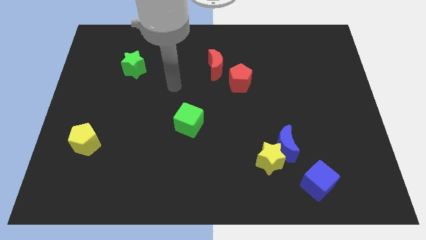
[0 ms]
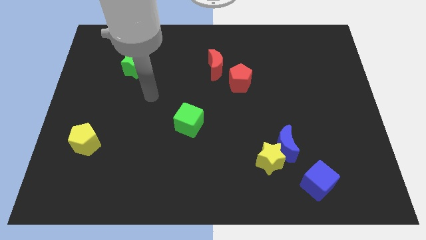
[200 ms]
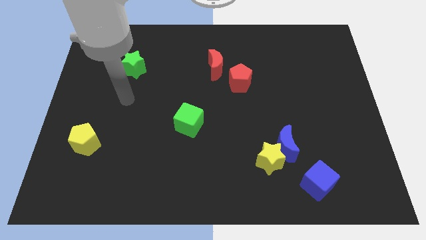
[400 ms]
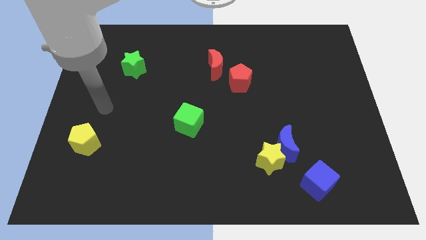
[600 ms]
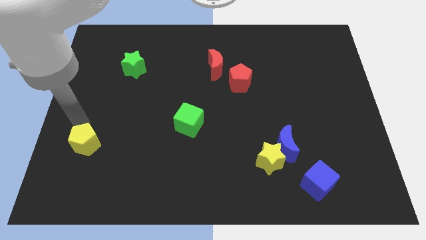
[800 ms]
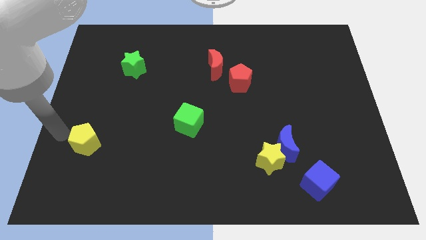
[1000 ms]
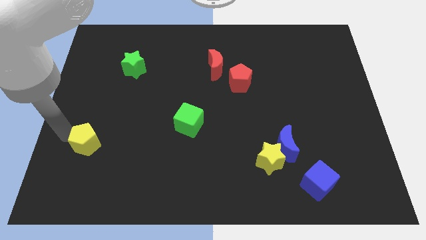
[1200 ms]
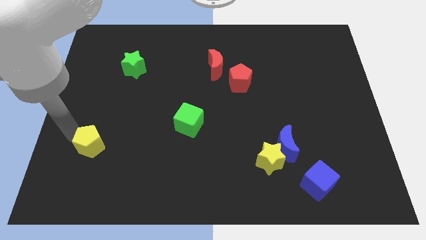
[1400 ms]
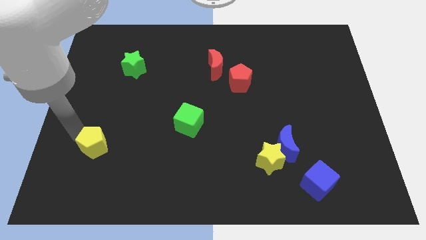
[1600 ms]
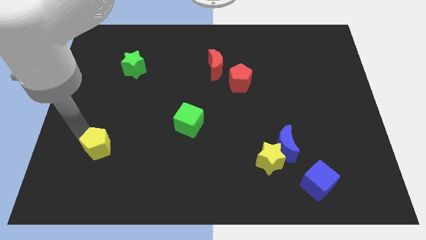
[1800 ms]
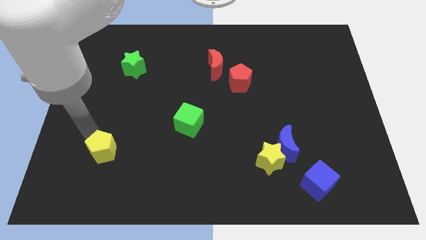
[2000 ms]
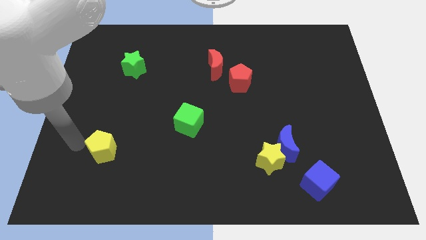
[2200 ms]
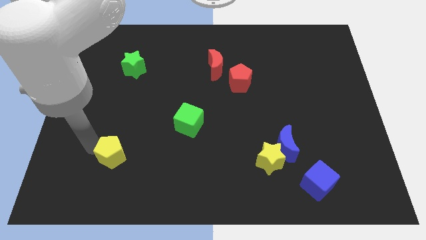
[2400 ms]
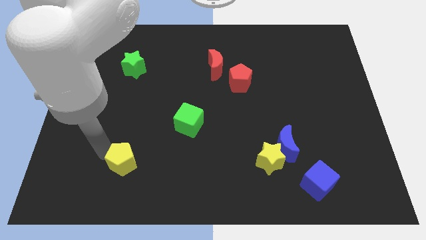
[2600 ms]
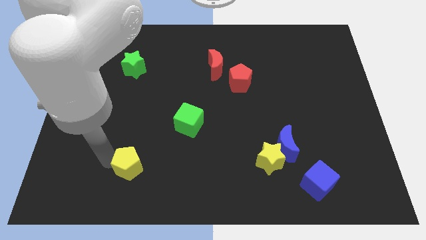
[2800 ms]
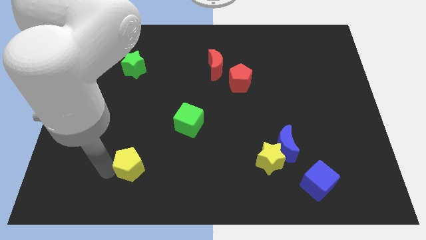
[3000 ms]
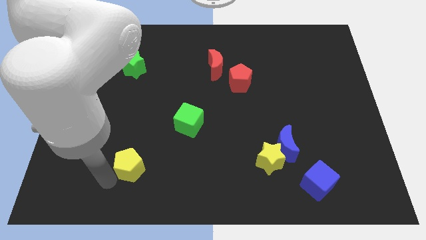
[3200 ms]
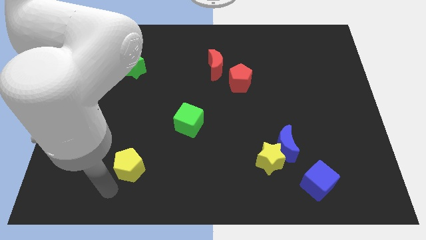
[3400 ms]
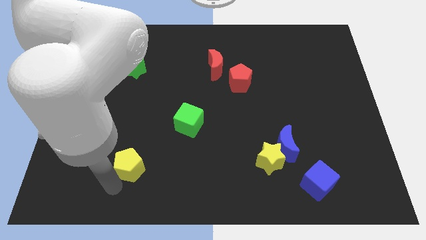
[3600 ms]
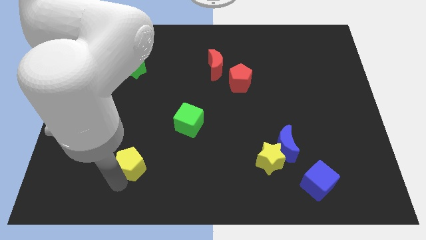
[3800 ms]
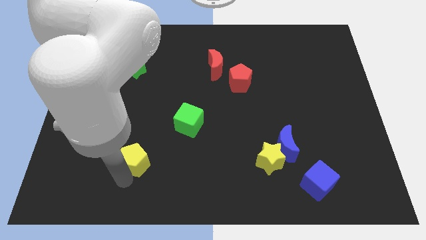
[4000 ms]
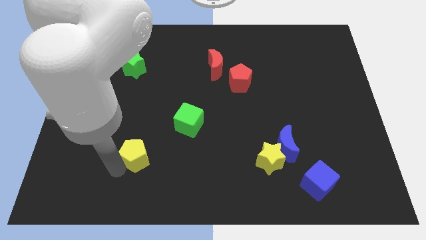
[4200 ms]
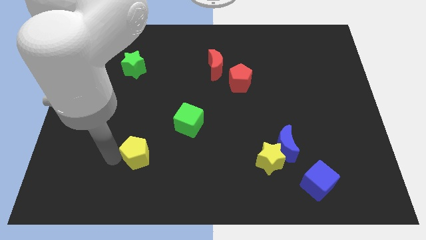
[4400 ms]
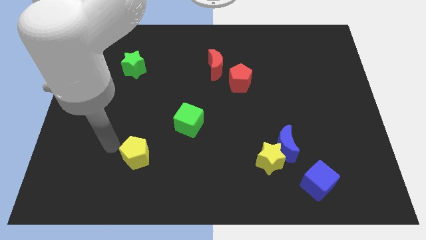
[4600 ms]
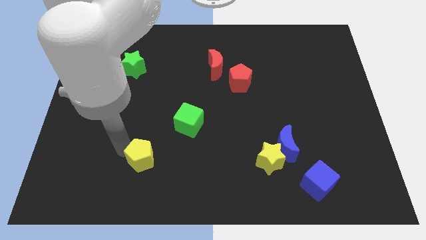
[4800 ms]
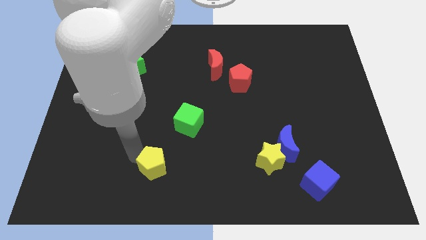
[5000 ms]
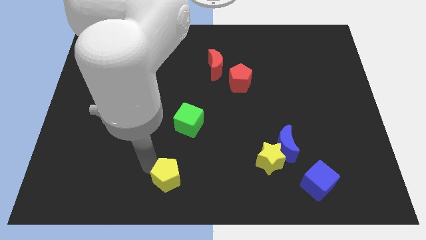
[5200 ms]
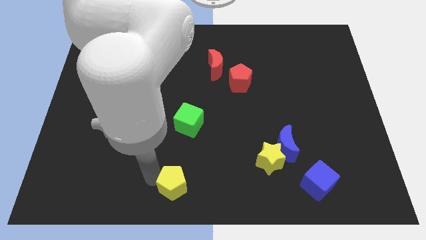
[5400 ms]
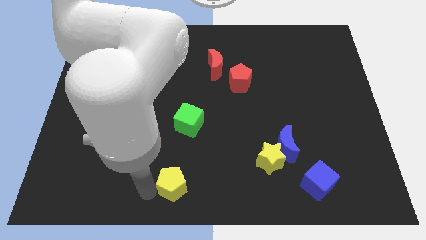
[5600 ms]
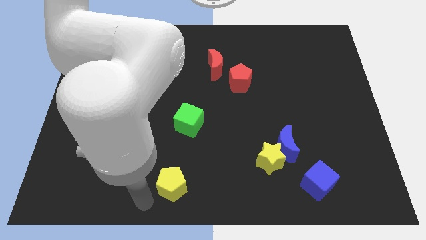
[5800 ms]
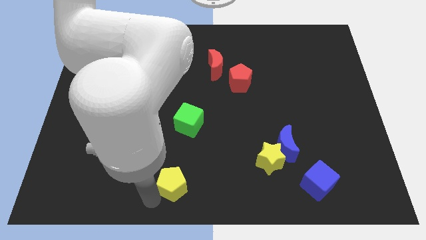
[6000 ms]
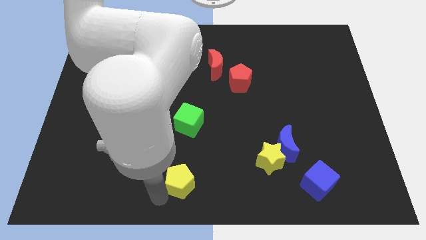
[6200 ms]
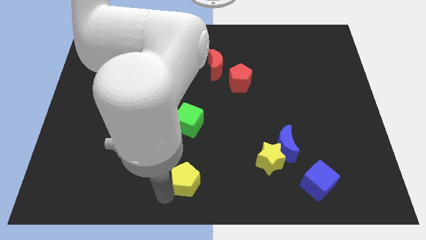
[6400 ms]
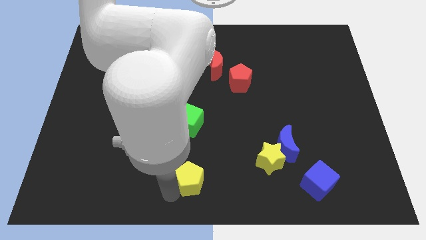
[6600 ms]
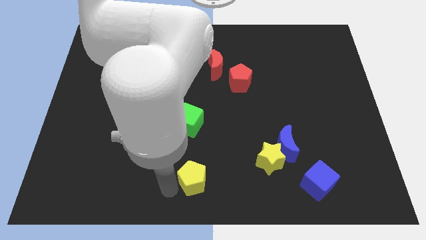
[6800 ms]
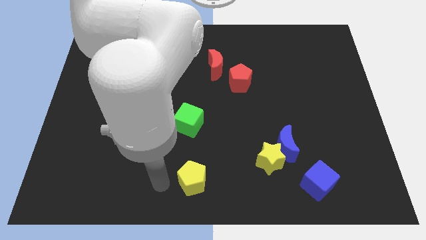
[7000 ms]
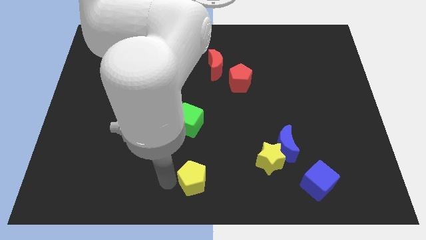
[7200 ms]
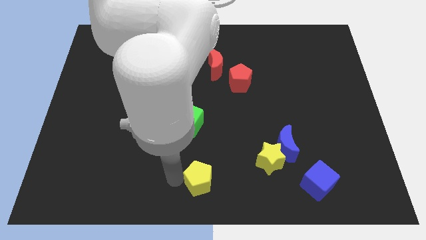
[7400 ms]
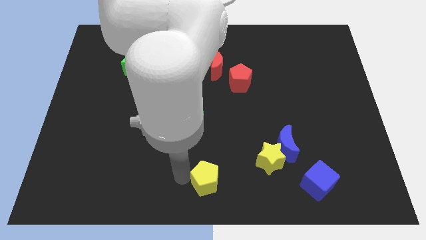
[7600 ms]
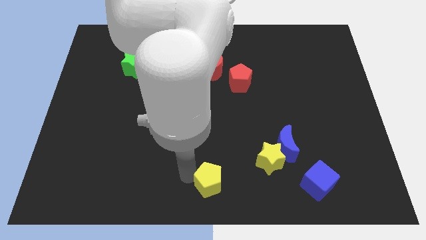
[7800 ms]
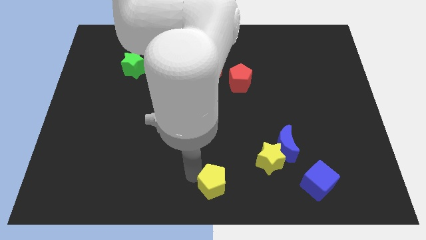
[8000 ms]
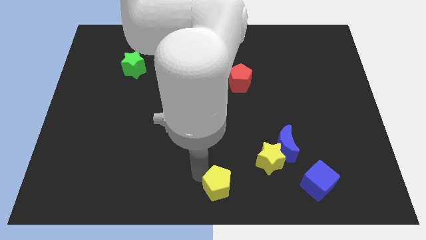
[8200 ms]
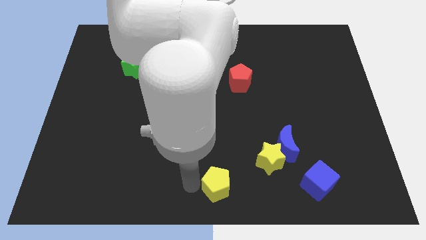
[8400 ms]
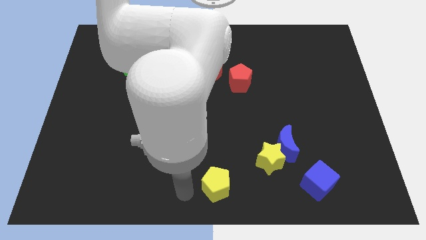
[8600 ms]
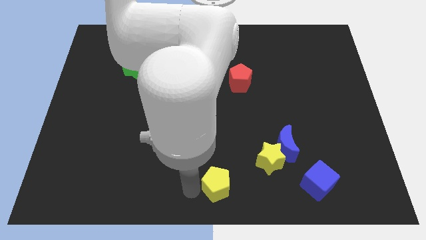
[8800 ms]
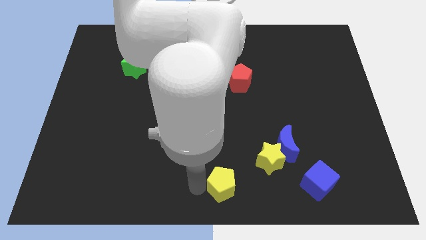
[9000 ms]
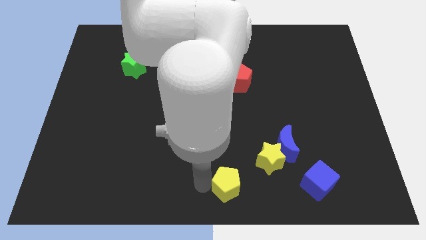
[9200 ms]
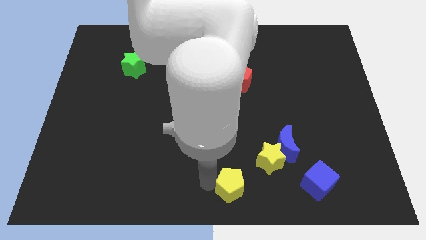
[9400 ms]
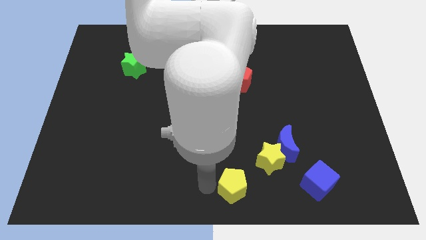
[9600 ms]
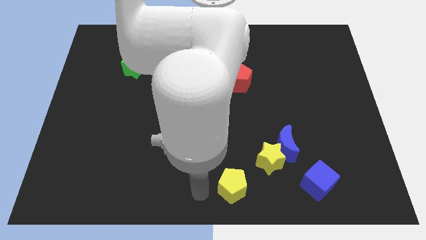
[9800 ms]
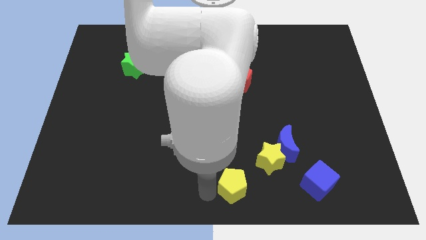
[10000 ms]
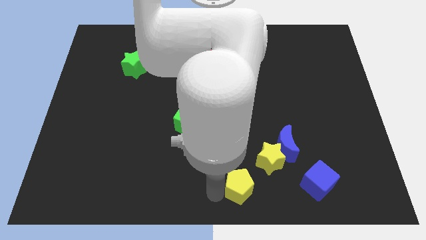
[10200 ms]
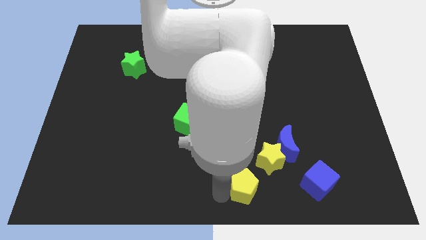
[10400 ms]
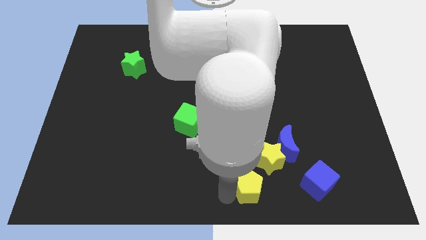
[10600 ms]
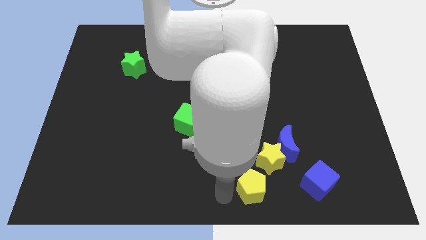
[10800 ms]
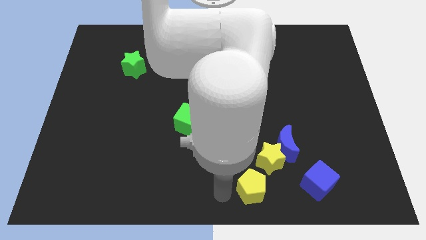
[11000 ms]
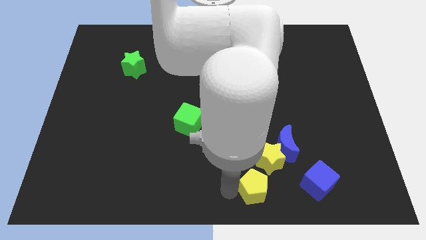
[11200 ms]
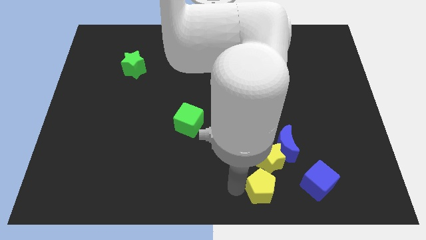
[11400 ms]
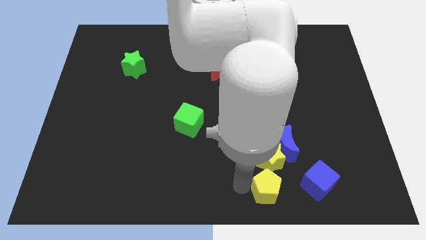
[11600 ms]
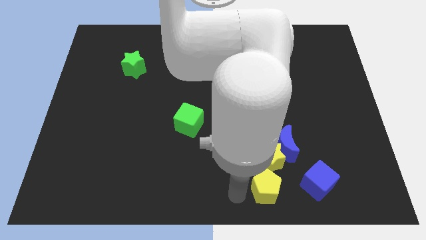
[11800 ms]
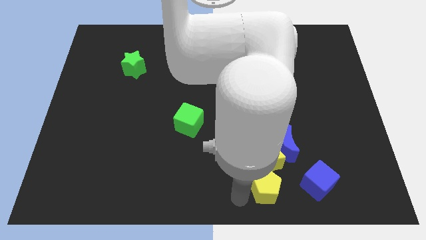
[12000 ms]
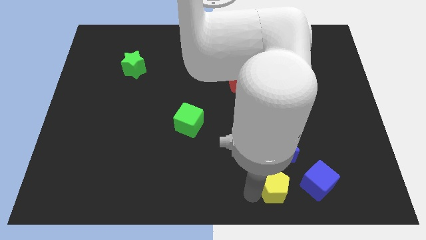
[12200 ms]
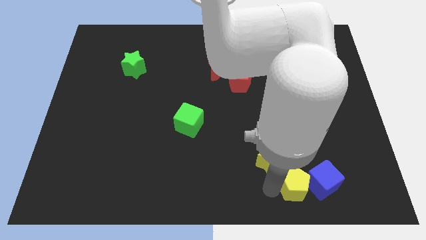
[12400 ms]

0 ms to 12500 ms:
move the yellow pentagon close to the blue cube
